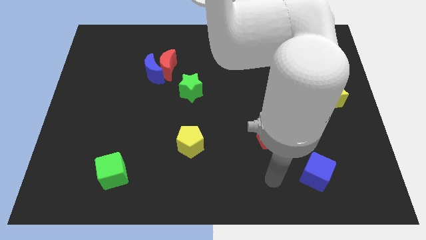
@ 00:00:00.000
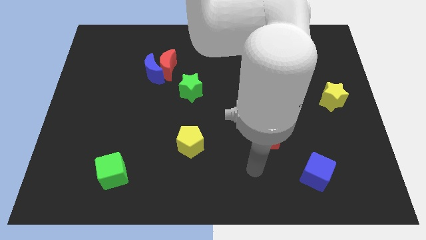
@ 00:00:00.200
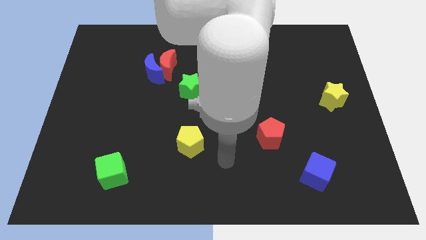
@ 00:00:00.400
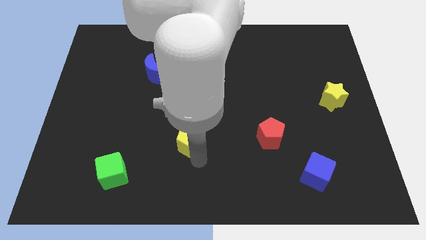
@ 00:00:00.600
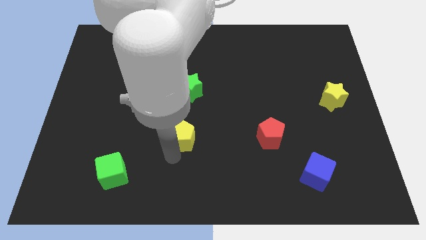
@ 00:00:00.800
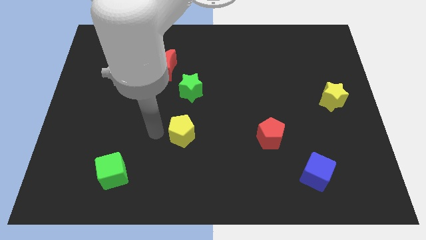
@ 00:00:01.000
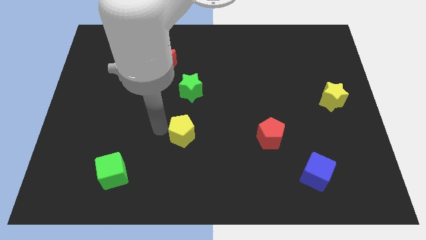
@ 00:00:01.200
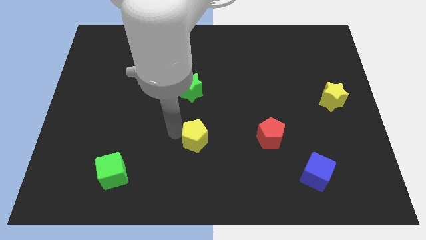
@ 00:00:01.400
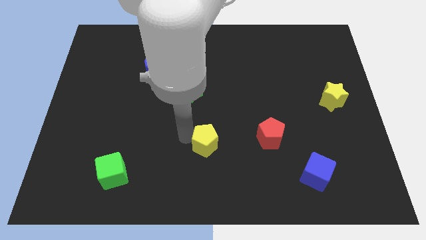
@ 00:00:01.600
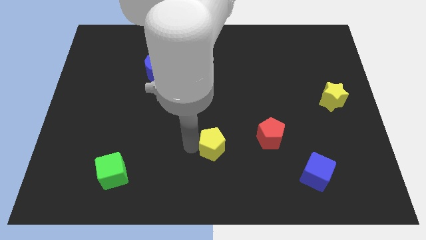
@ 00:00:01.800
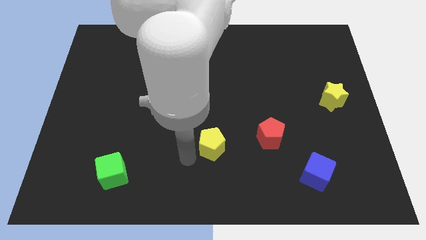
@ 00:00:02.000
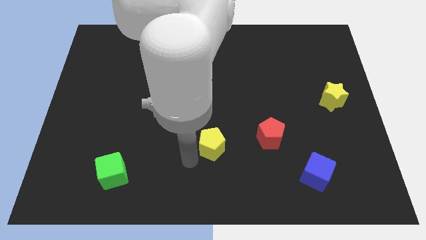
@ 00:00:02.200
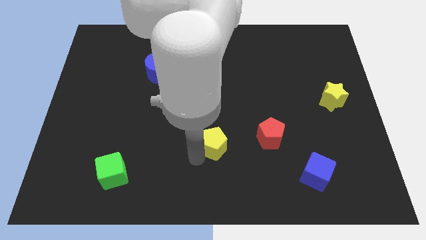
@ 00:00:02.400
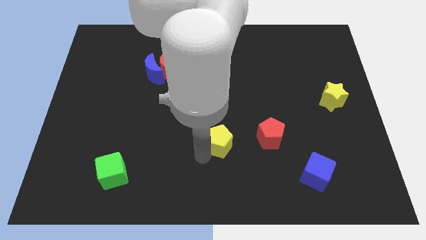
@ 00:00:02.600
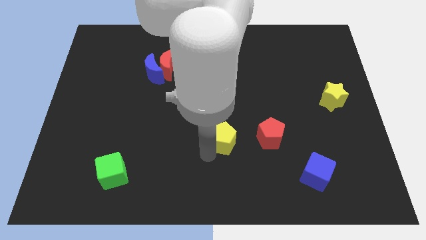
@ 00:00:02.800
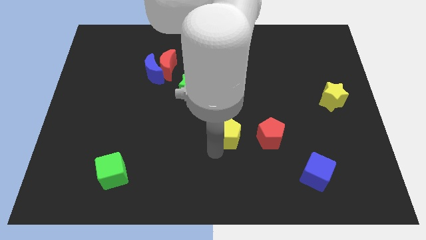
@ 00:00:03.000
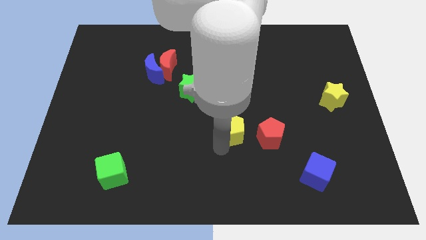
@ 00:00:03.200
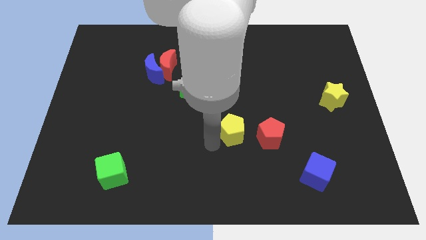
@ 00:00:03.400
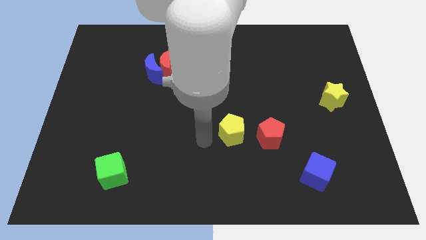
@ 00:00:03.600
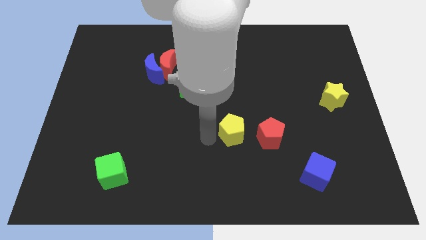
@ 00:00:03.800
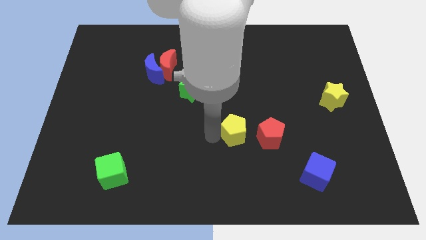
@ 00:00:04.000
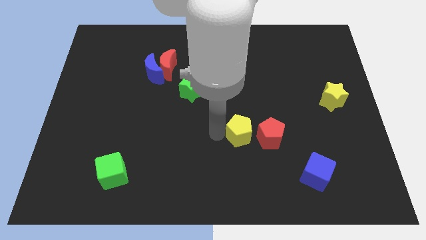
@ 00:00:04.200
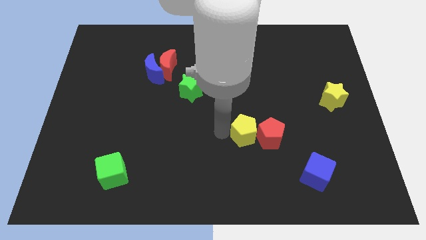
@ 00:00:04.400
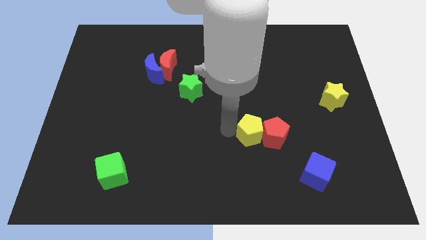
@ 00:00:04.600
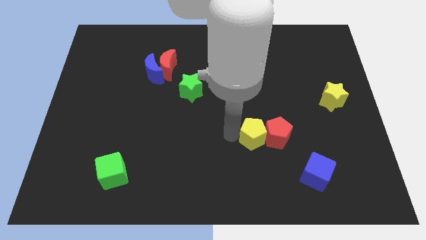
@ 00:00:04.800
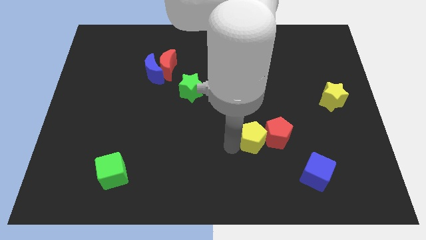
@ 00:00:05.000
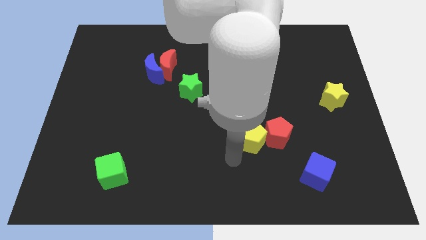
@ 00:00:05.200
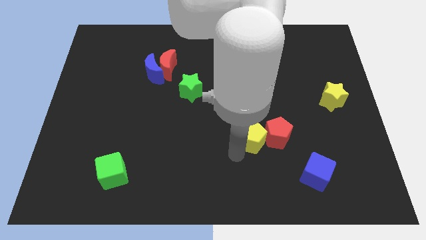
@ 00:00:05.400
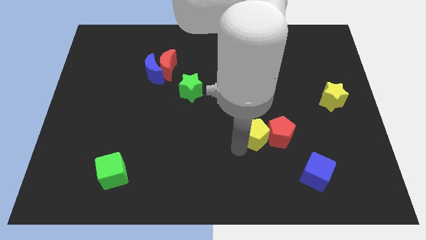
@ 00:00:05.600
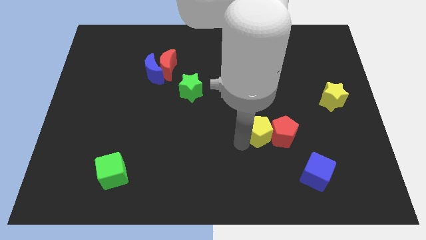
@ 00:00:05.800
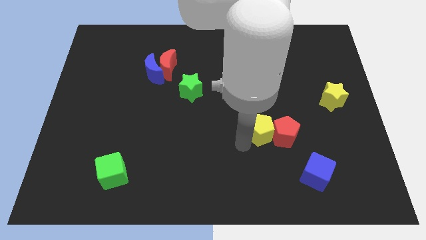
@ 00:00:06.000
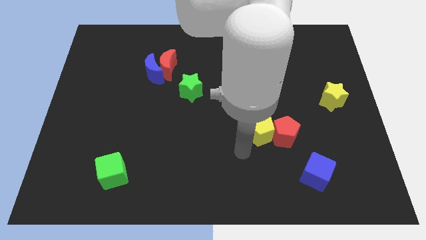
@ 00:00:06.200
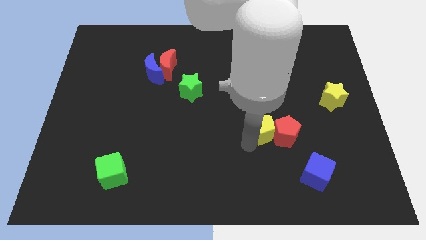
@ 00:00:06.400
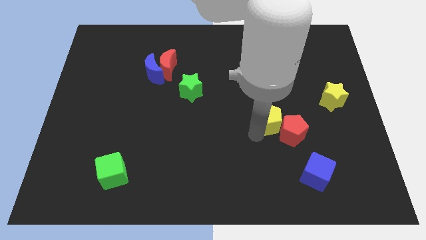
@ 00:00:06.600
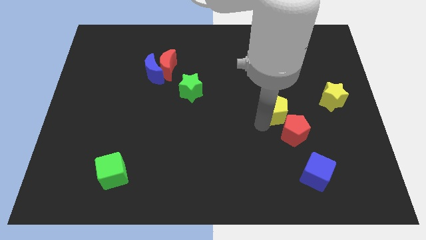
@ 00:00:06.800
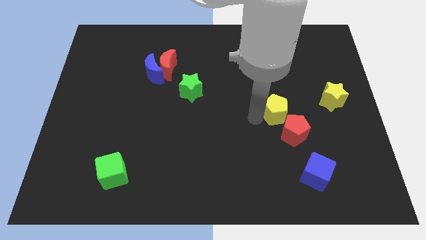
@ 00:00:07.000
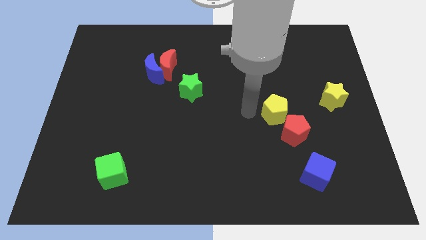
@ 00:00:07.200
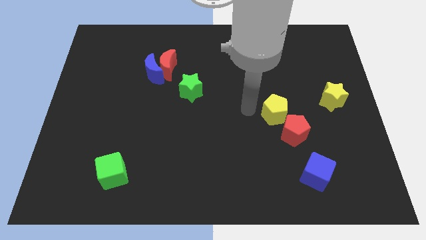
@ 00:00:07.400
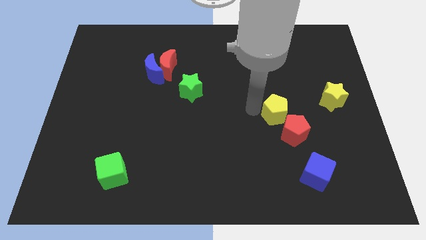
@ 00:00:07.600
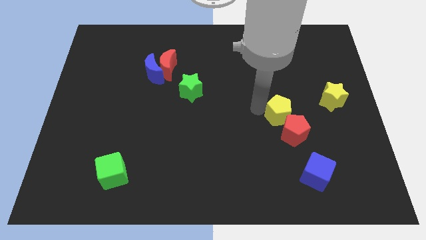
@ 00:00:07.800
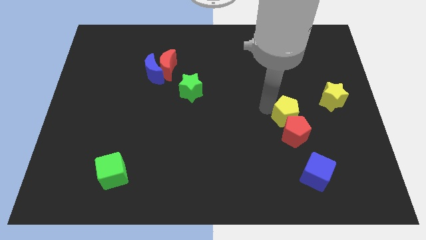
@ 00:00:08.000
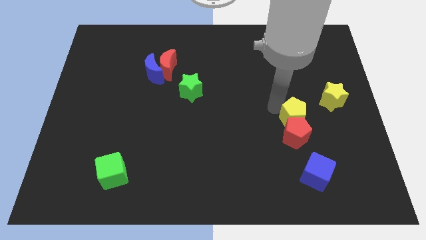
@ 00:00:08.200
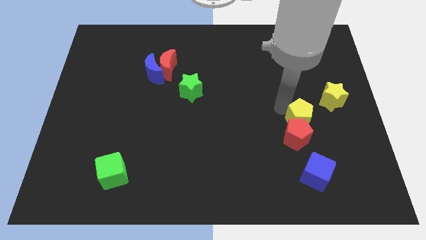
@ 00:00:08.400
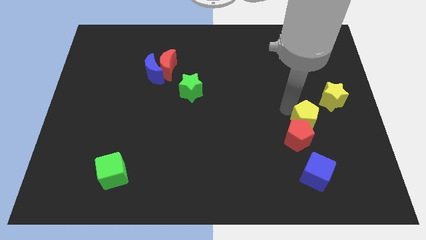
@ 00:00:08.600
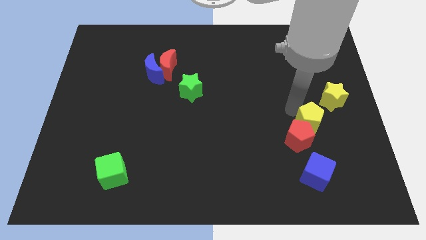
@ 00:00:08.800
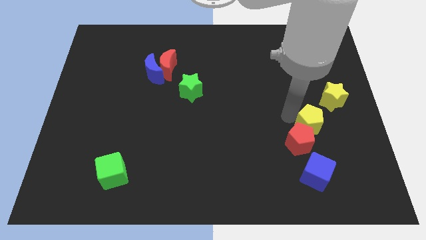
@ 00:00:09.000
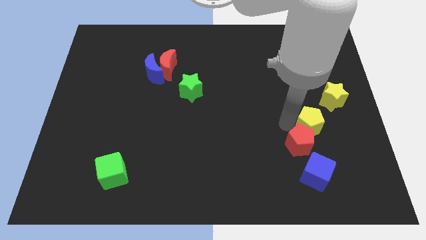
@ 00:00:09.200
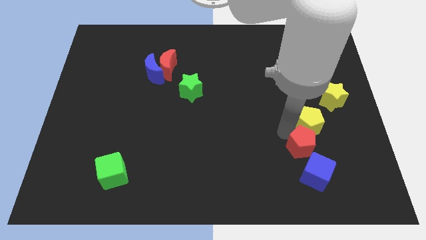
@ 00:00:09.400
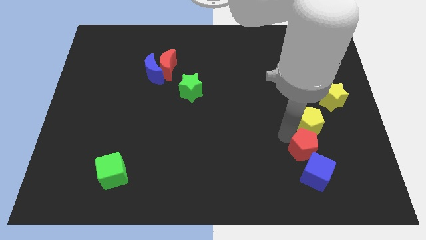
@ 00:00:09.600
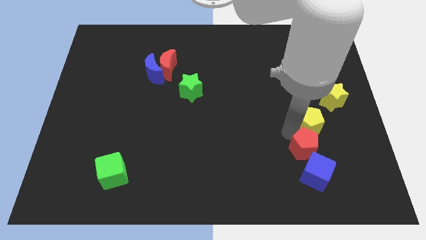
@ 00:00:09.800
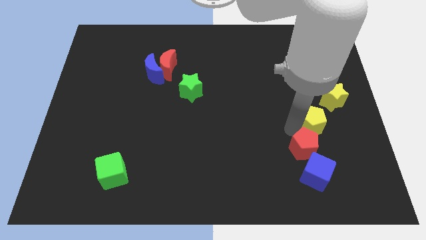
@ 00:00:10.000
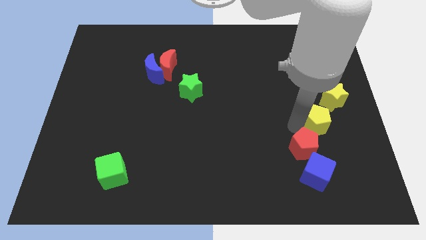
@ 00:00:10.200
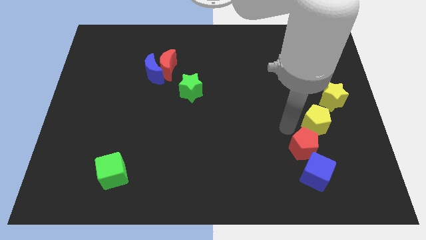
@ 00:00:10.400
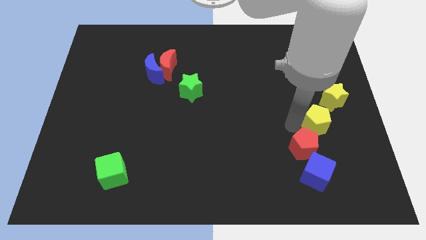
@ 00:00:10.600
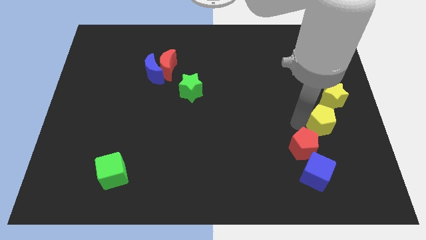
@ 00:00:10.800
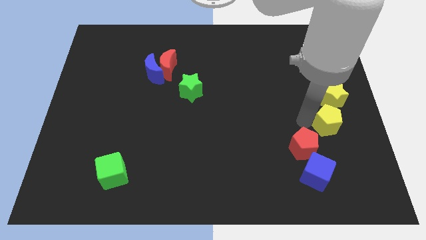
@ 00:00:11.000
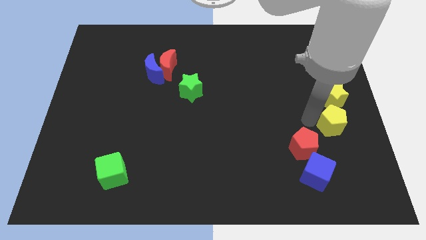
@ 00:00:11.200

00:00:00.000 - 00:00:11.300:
put the yellow pentagon to the right side of the board

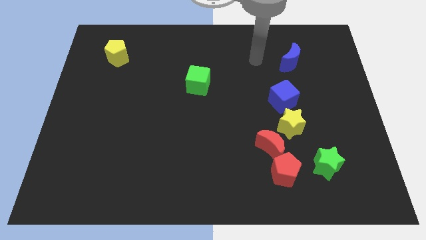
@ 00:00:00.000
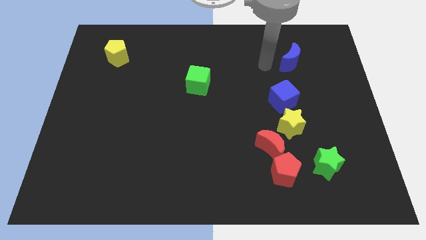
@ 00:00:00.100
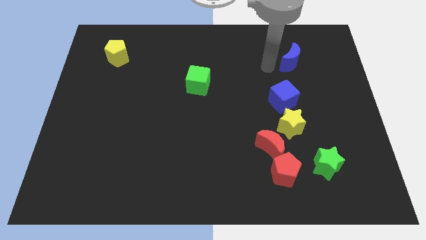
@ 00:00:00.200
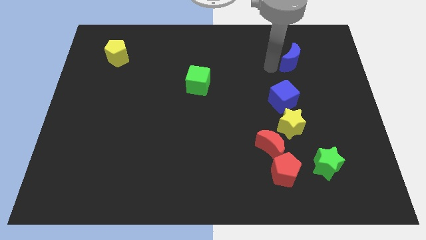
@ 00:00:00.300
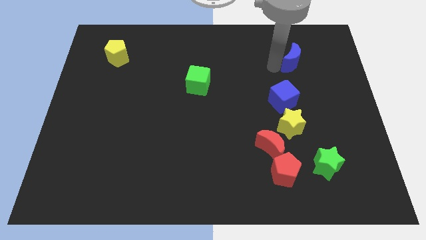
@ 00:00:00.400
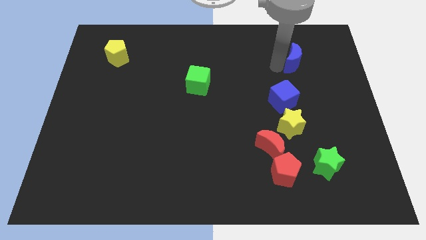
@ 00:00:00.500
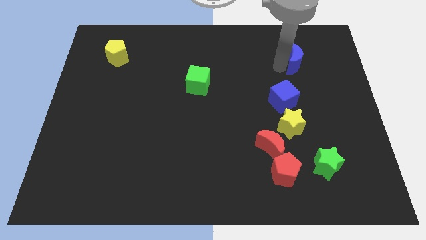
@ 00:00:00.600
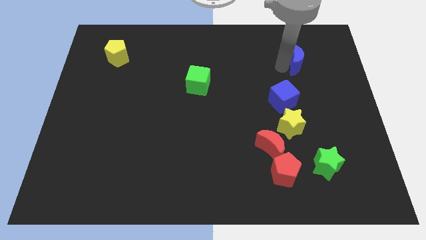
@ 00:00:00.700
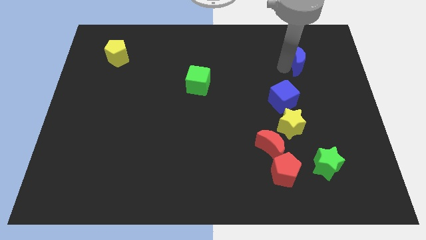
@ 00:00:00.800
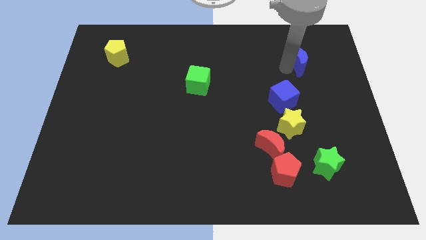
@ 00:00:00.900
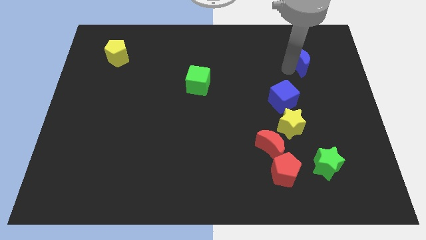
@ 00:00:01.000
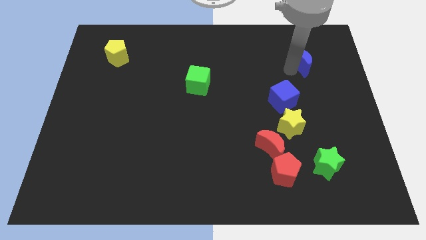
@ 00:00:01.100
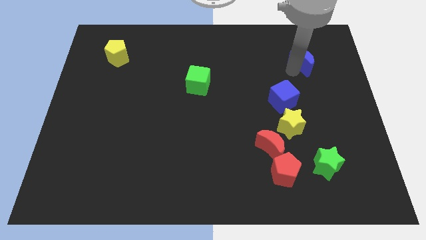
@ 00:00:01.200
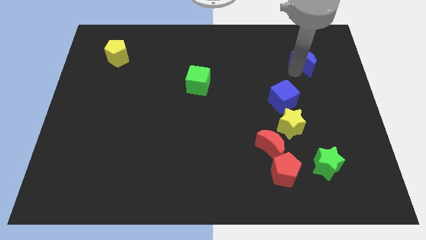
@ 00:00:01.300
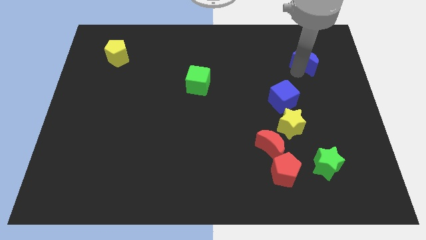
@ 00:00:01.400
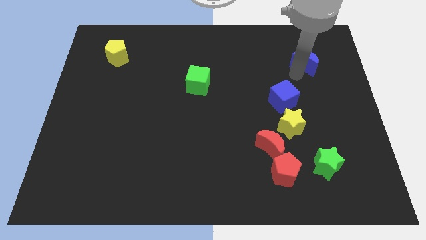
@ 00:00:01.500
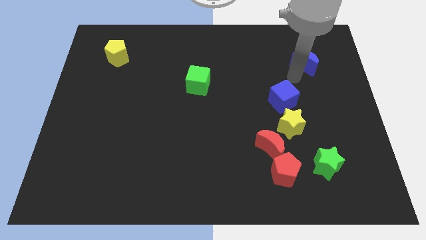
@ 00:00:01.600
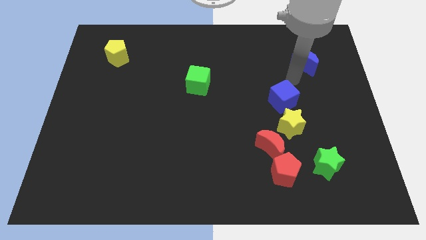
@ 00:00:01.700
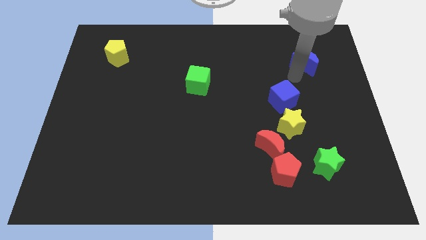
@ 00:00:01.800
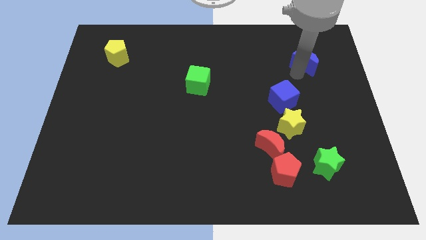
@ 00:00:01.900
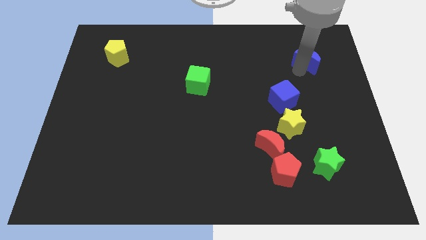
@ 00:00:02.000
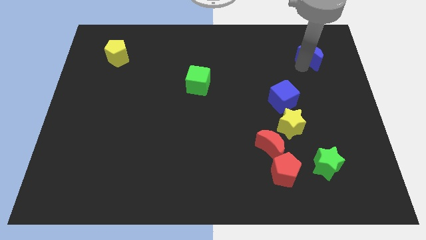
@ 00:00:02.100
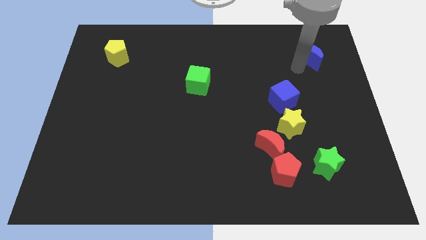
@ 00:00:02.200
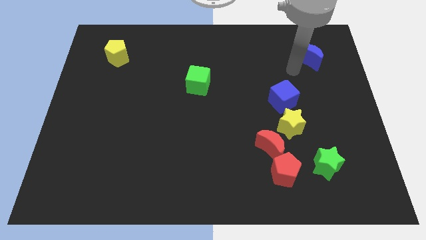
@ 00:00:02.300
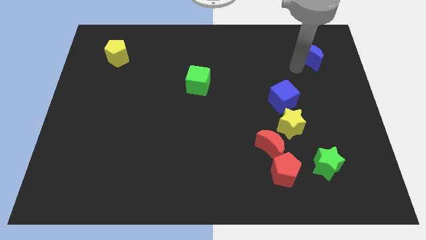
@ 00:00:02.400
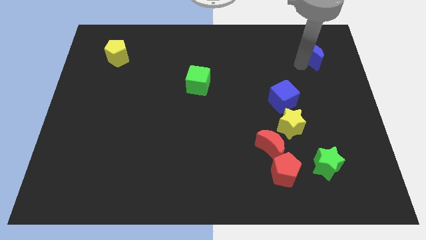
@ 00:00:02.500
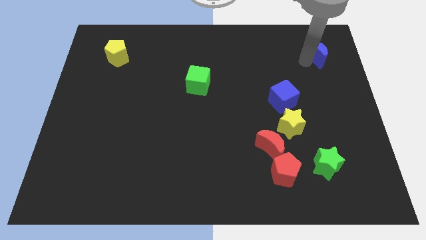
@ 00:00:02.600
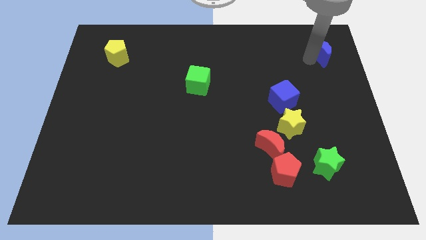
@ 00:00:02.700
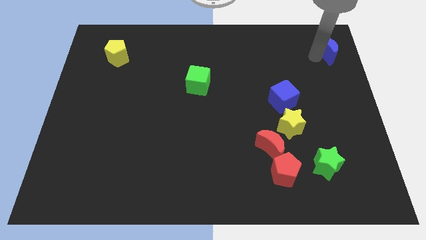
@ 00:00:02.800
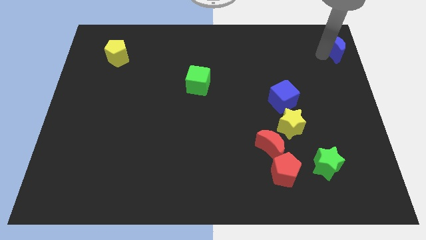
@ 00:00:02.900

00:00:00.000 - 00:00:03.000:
push the blue moon to the upper right corner
